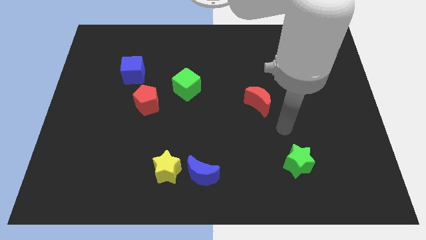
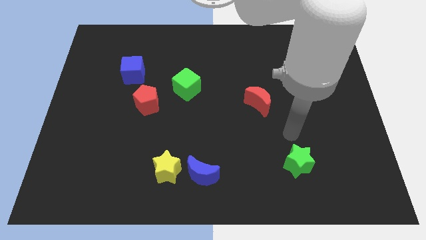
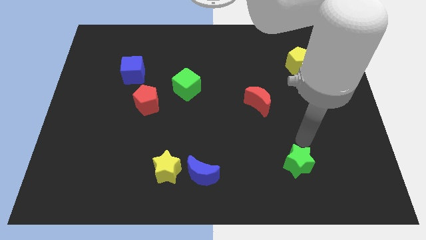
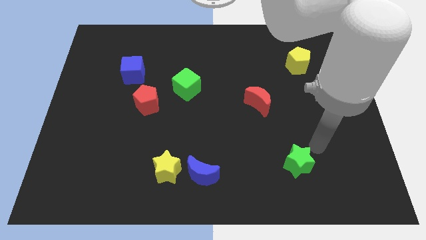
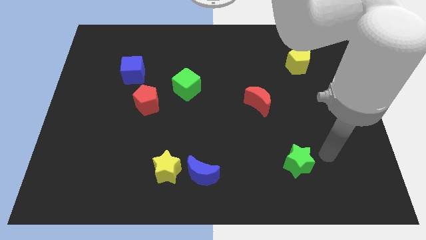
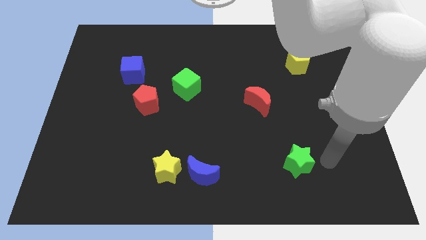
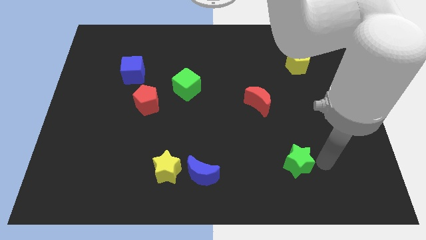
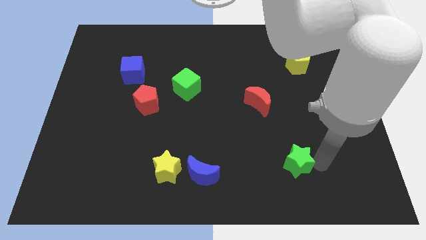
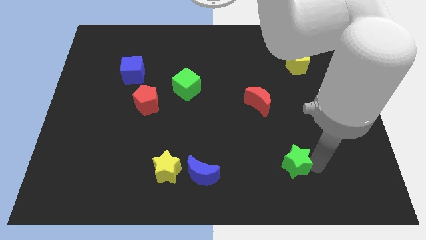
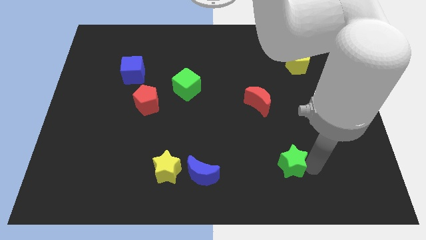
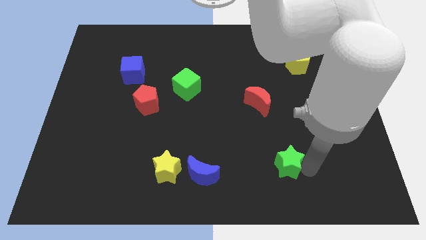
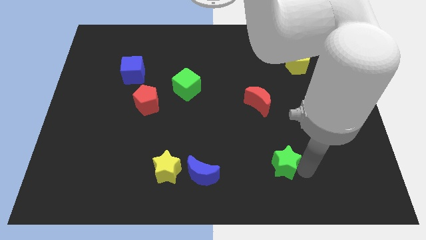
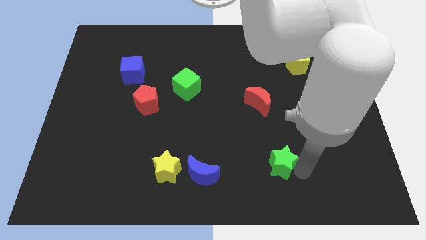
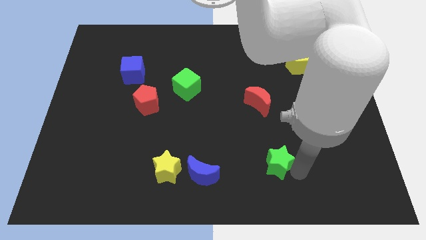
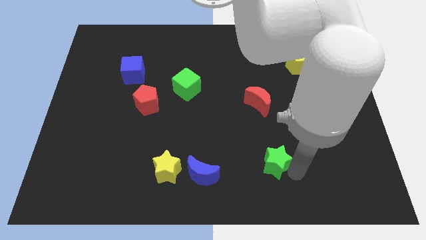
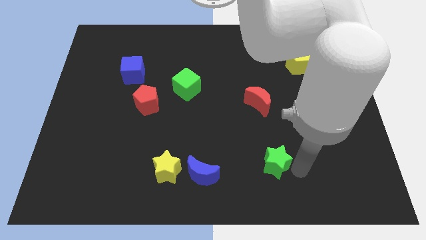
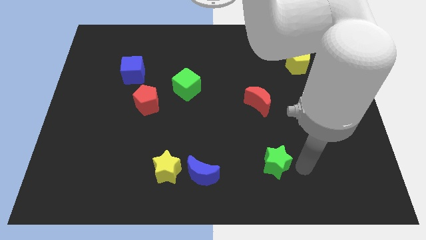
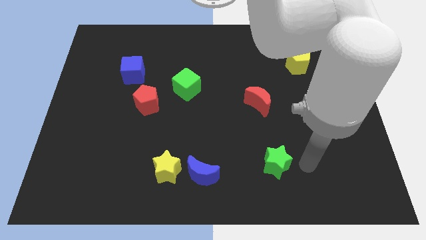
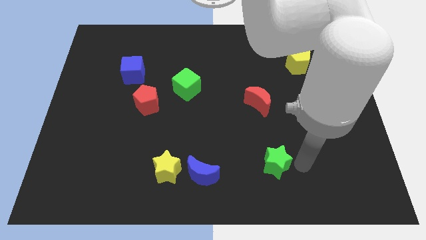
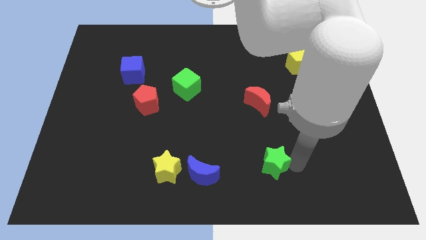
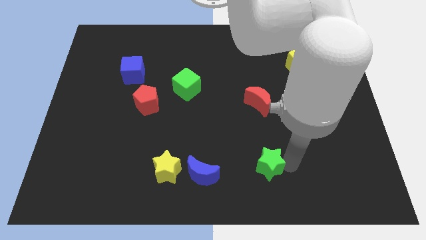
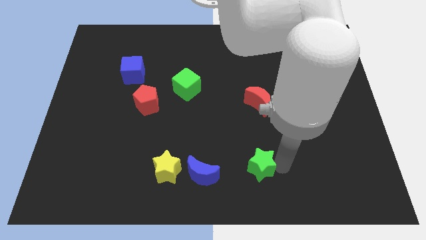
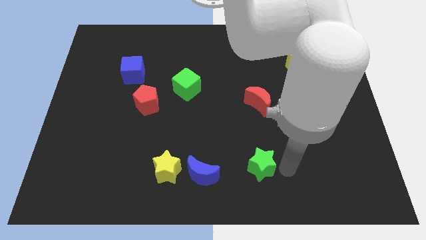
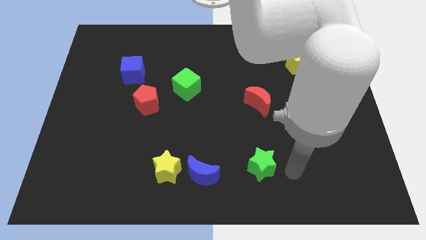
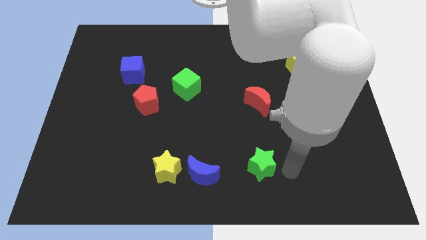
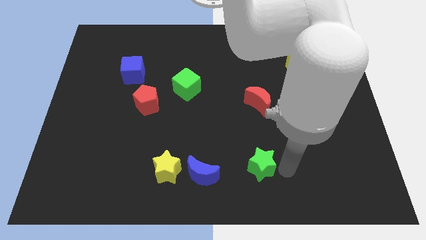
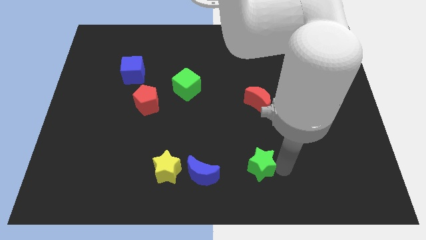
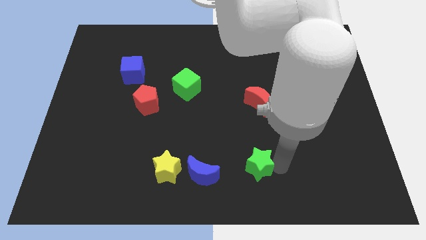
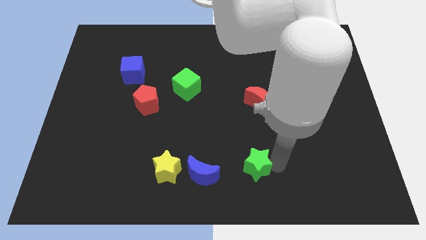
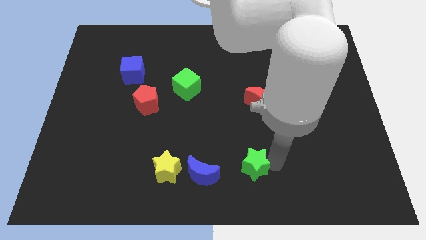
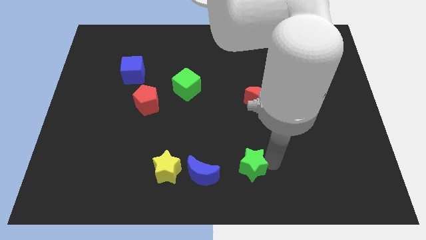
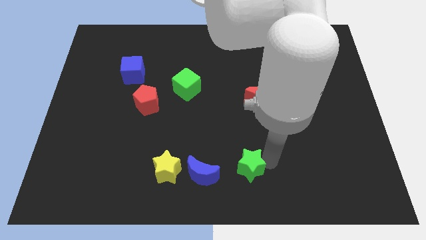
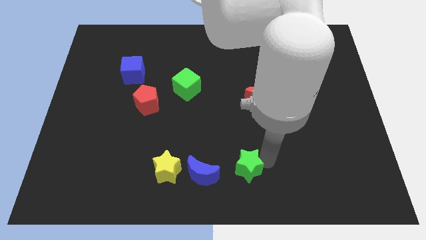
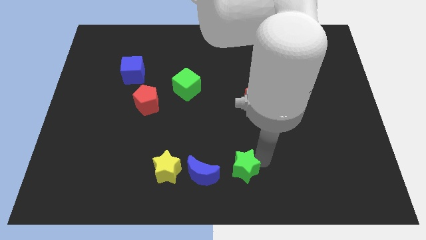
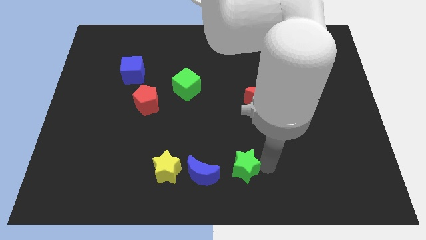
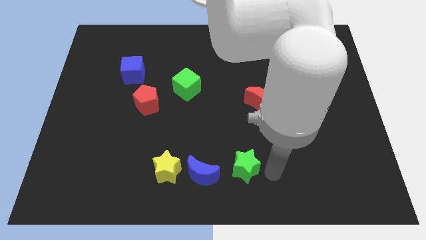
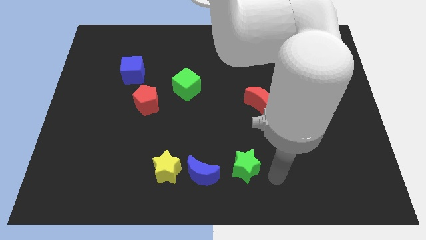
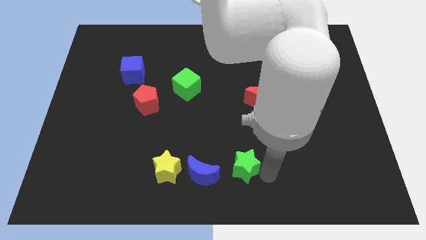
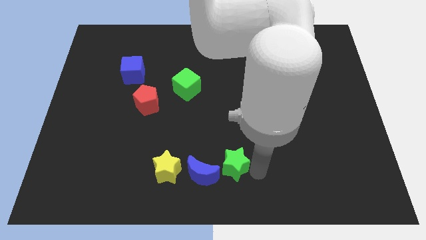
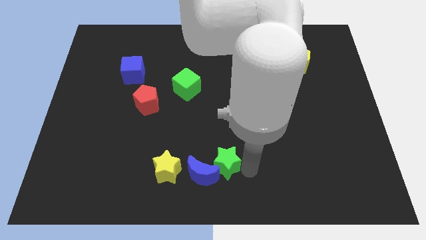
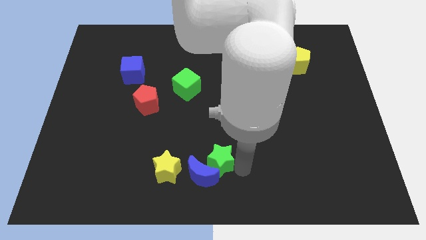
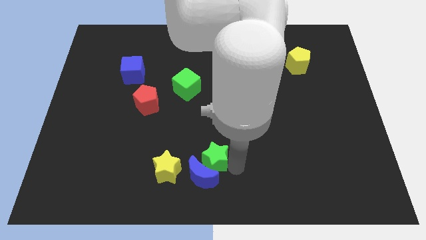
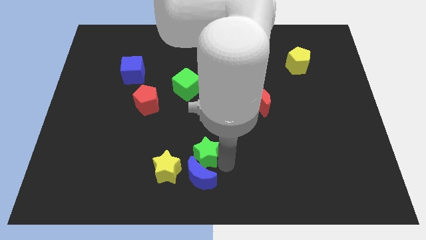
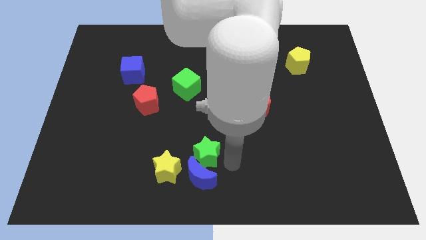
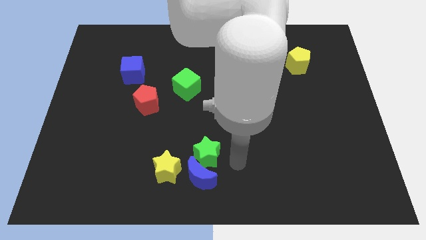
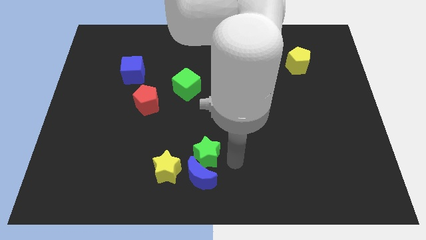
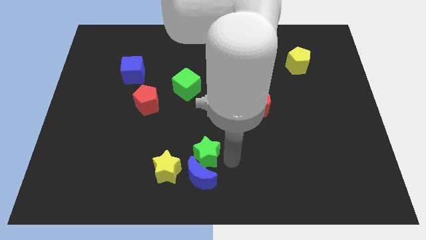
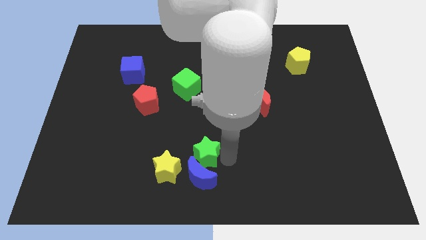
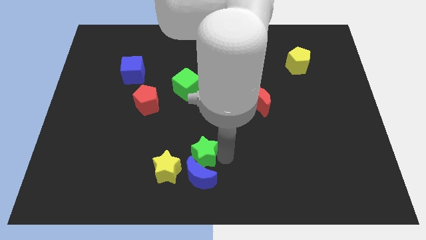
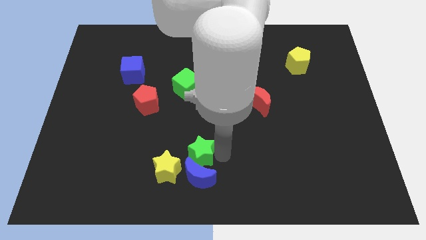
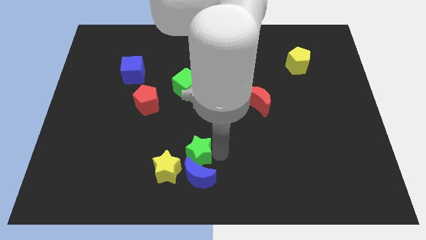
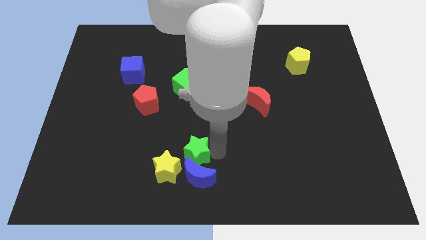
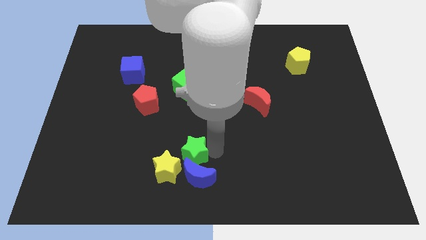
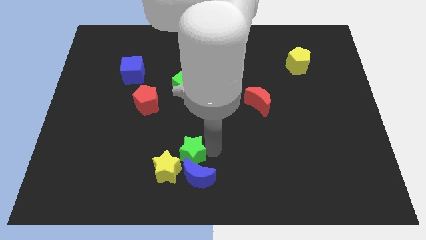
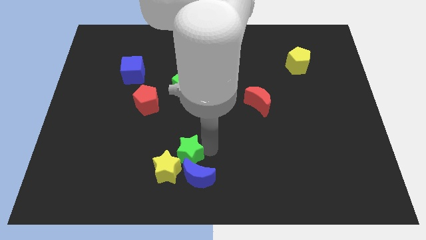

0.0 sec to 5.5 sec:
push the green star next to the yellow star
